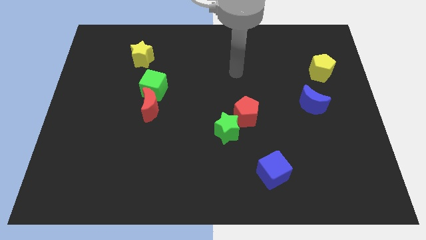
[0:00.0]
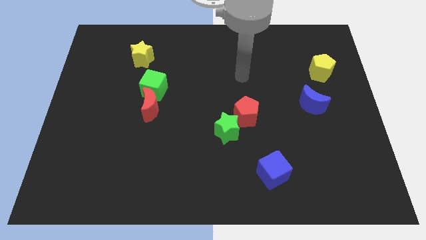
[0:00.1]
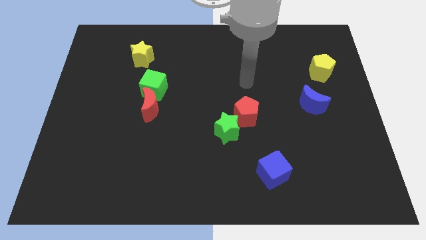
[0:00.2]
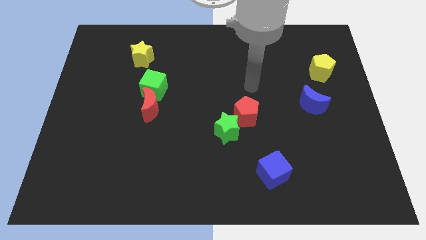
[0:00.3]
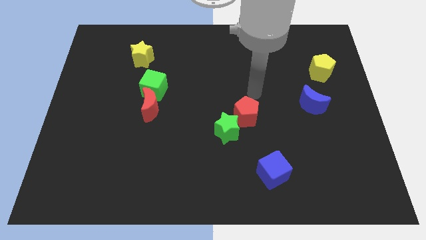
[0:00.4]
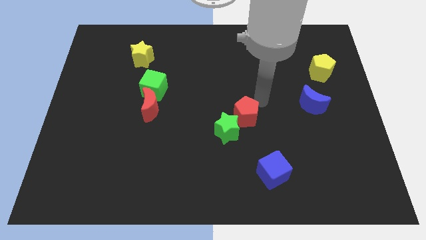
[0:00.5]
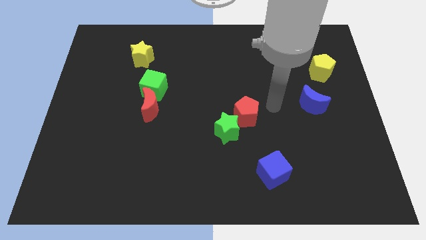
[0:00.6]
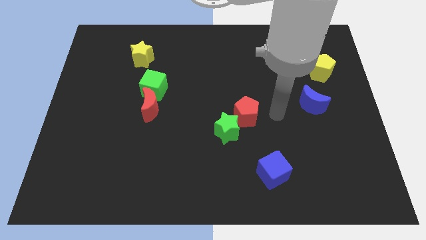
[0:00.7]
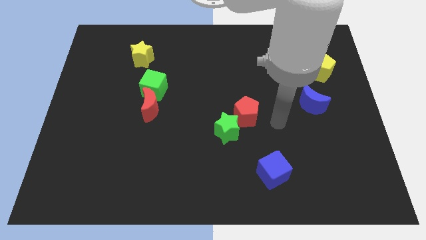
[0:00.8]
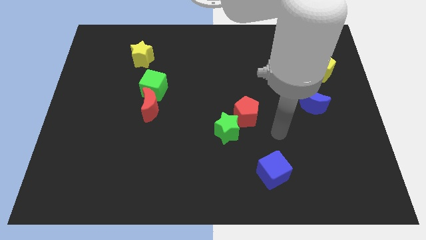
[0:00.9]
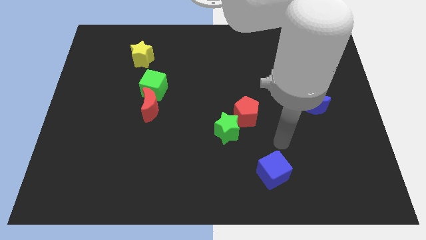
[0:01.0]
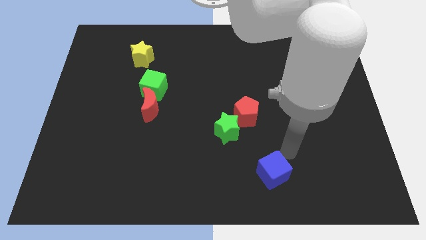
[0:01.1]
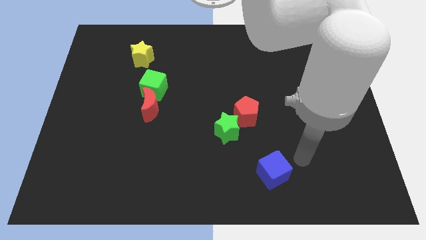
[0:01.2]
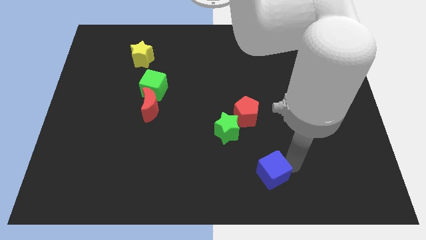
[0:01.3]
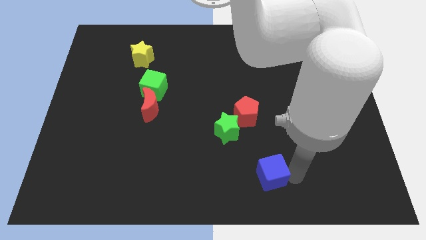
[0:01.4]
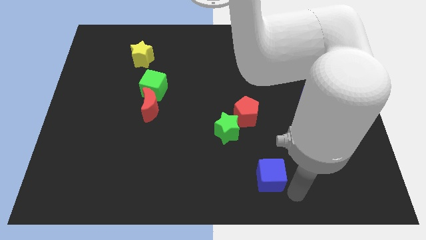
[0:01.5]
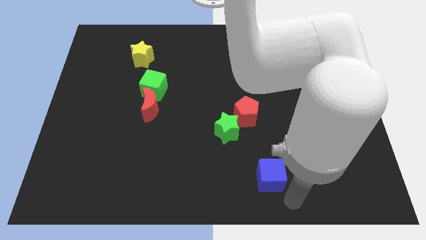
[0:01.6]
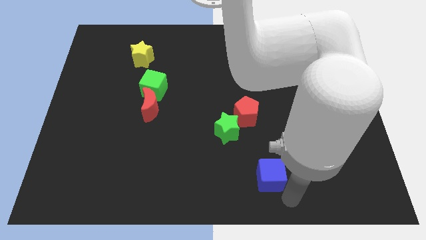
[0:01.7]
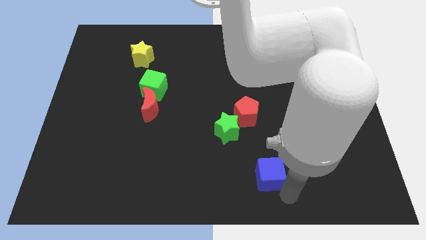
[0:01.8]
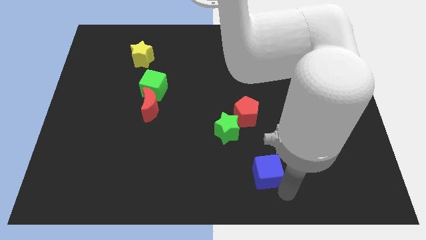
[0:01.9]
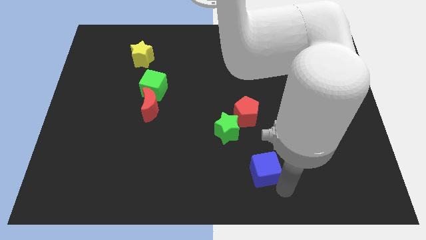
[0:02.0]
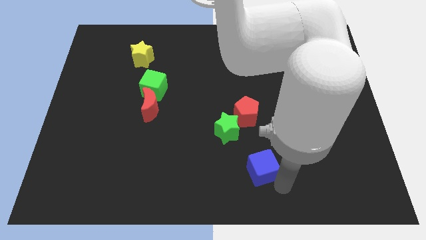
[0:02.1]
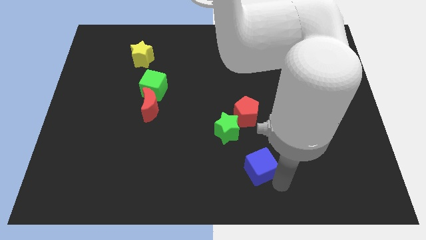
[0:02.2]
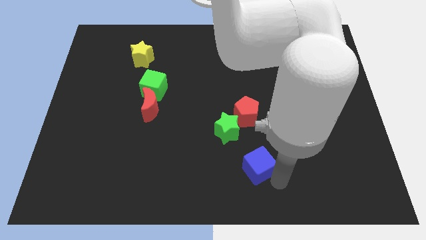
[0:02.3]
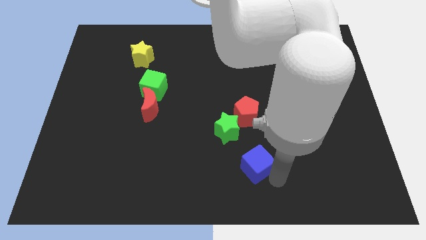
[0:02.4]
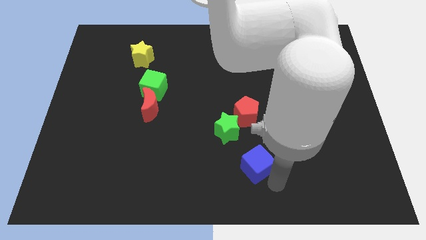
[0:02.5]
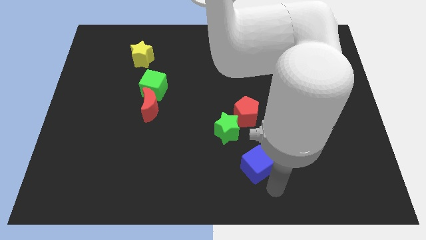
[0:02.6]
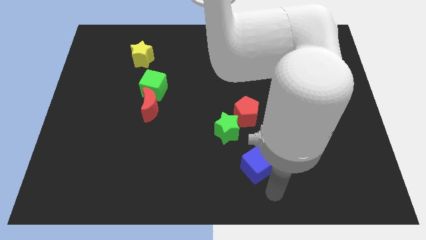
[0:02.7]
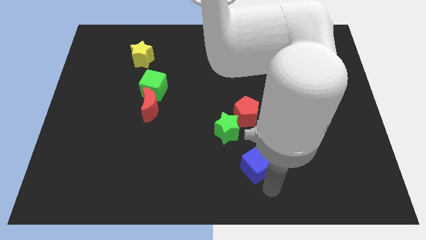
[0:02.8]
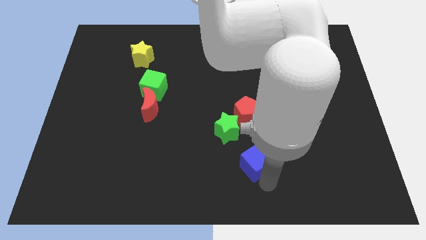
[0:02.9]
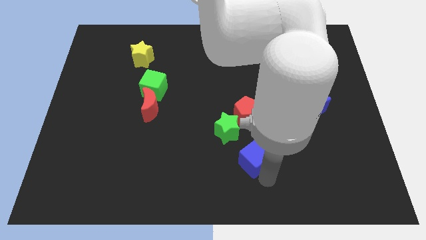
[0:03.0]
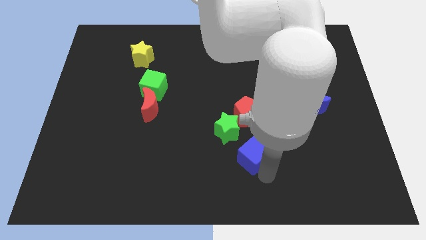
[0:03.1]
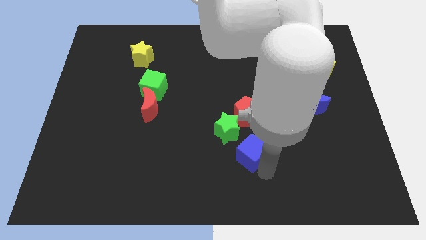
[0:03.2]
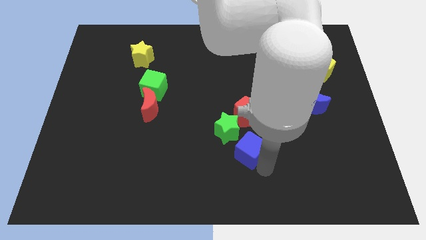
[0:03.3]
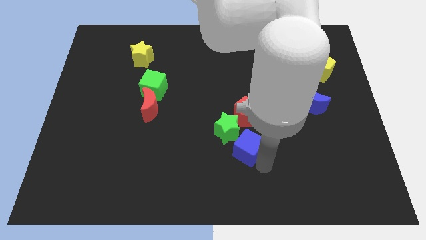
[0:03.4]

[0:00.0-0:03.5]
slide the blue cube slightly diagonally up and to the left

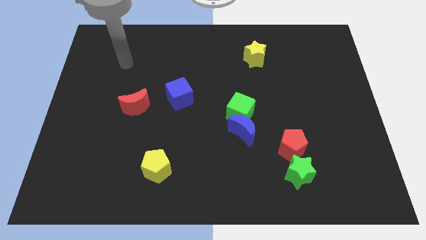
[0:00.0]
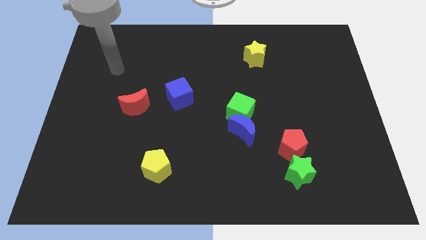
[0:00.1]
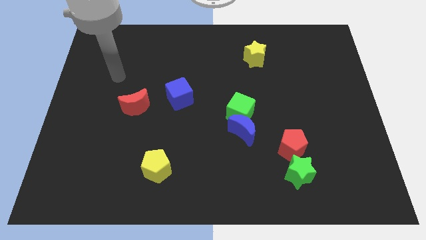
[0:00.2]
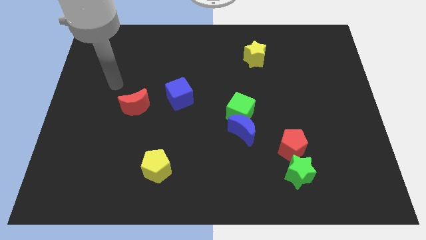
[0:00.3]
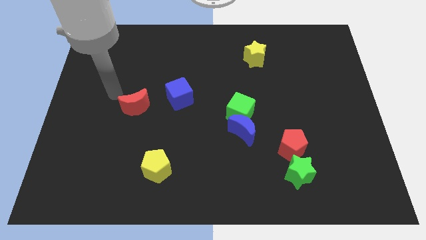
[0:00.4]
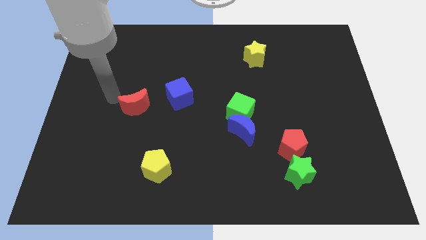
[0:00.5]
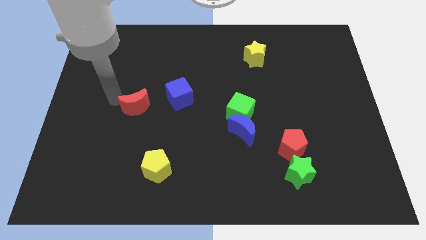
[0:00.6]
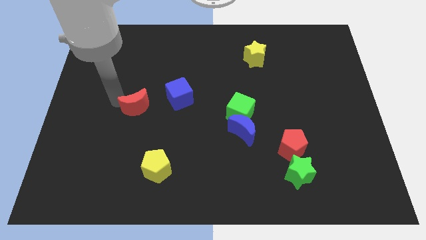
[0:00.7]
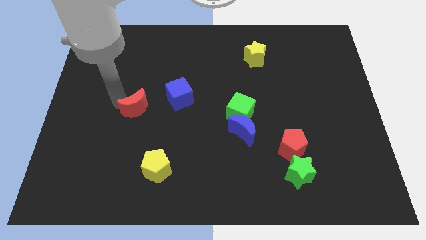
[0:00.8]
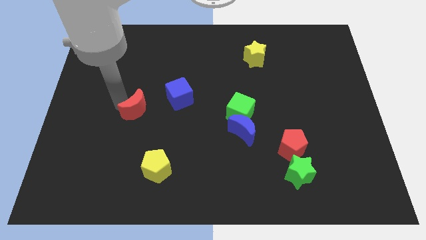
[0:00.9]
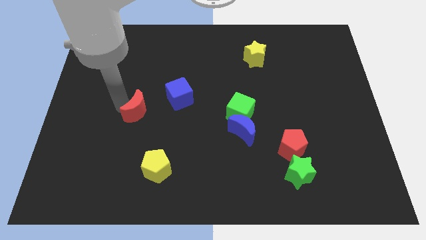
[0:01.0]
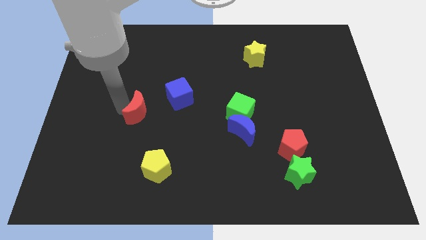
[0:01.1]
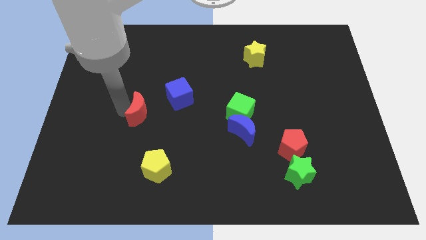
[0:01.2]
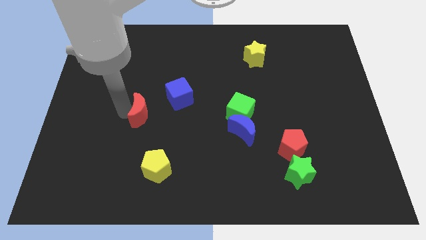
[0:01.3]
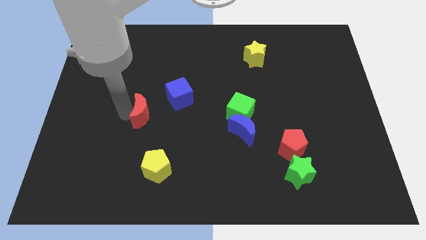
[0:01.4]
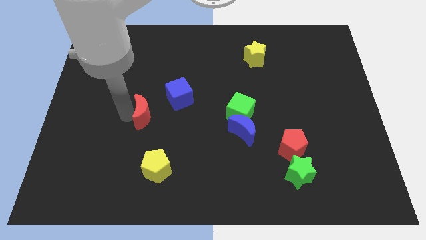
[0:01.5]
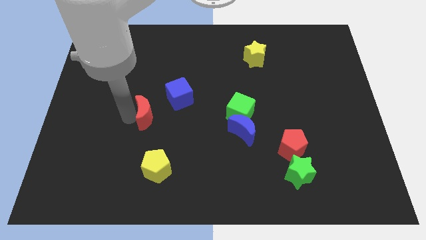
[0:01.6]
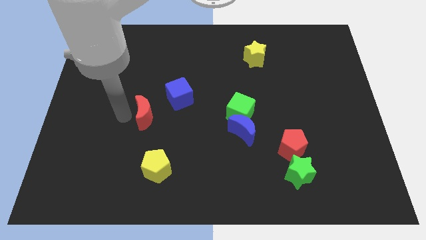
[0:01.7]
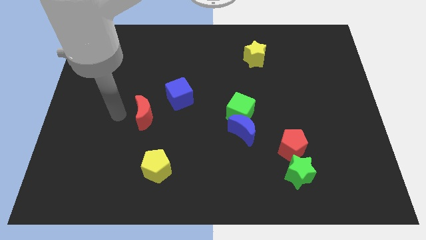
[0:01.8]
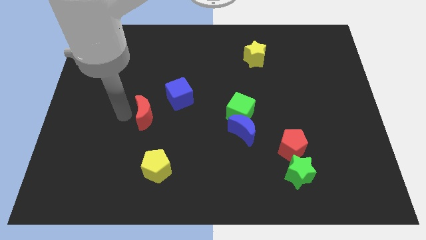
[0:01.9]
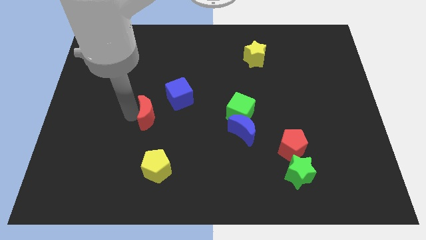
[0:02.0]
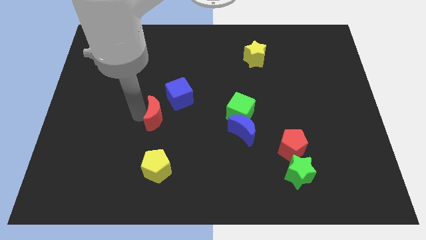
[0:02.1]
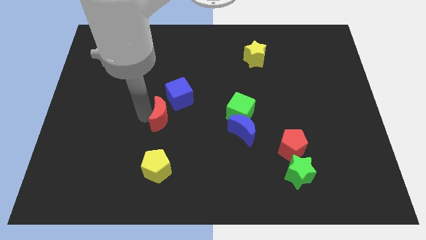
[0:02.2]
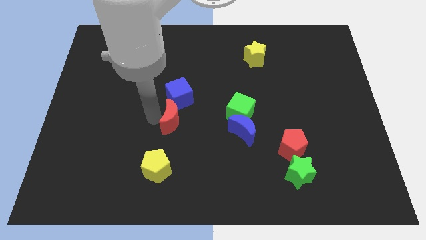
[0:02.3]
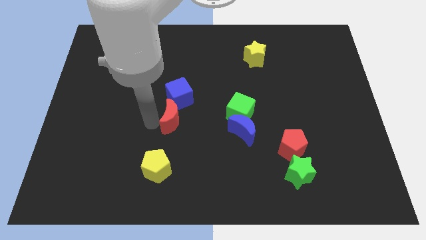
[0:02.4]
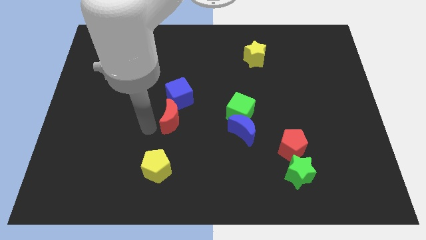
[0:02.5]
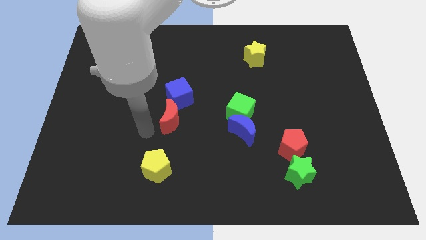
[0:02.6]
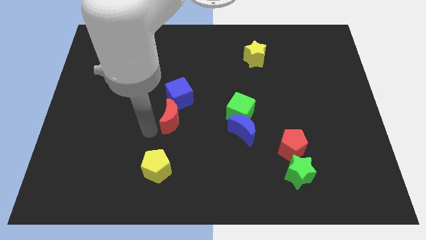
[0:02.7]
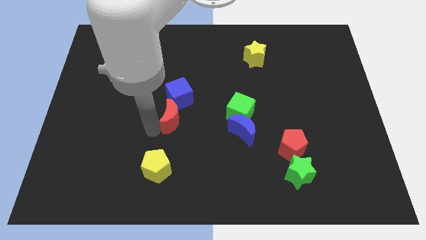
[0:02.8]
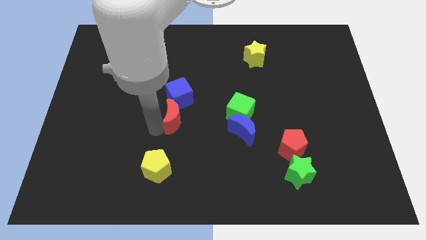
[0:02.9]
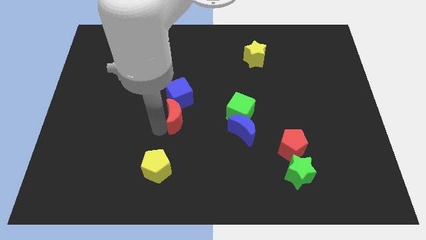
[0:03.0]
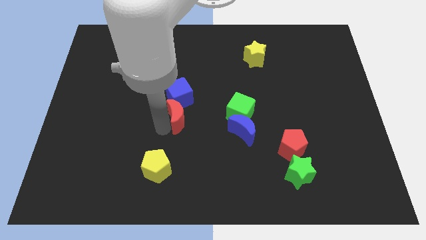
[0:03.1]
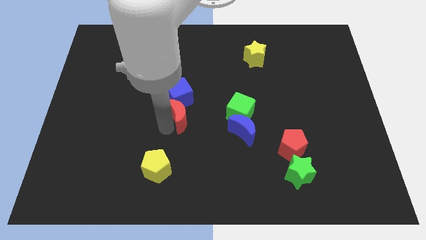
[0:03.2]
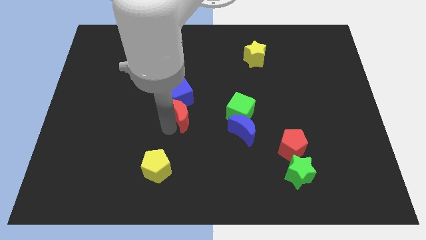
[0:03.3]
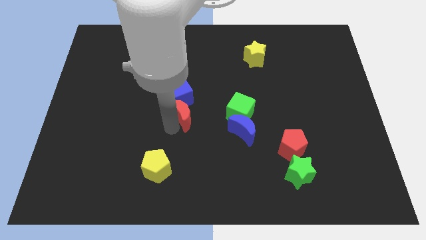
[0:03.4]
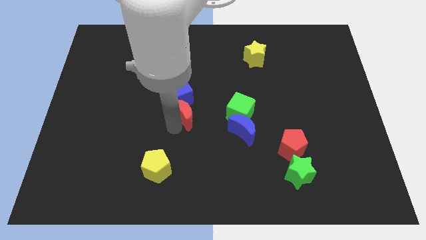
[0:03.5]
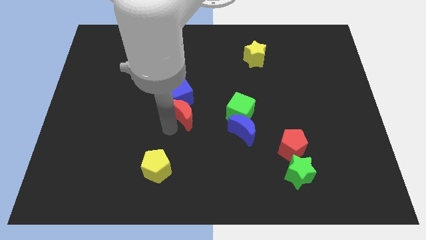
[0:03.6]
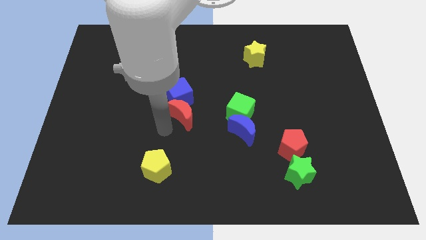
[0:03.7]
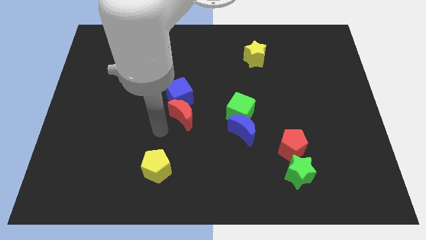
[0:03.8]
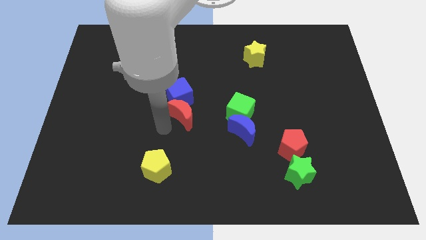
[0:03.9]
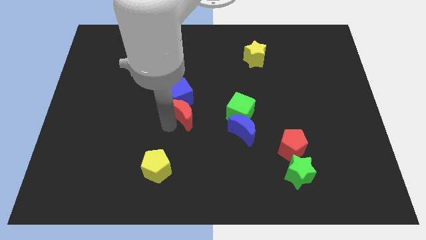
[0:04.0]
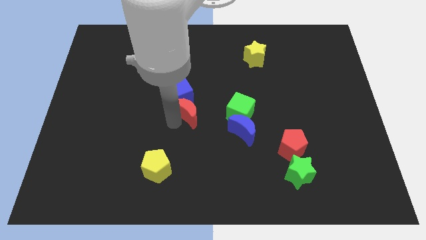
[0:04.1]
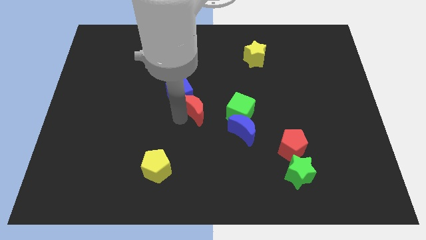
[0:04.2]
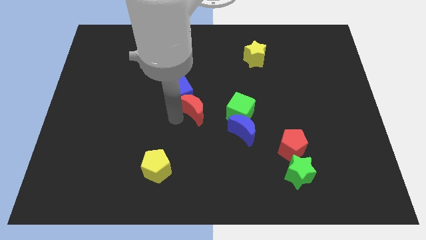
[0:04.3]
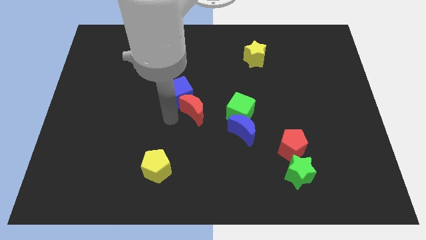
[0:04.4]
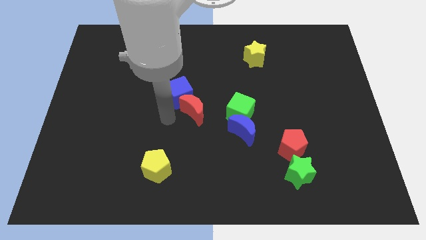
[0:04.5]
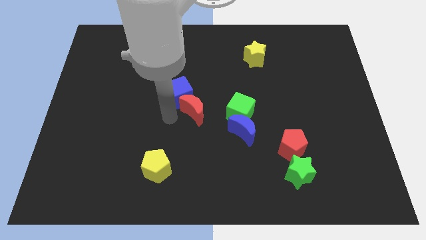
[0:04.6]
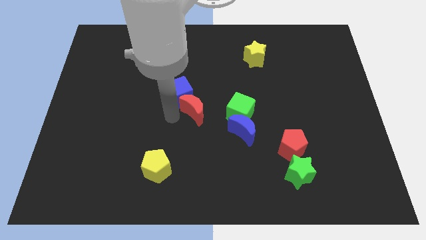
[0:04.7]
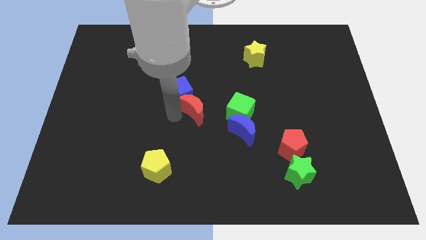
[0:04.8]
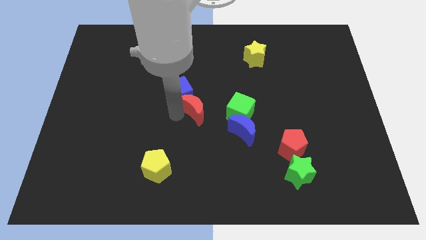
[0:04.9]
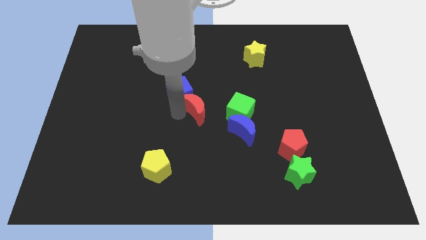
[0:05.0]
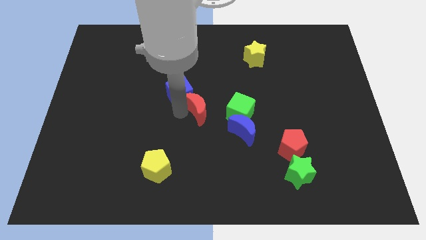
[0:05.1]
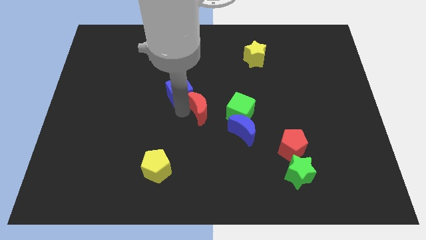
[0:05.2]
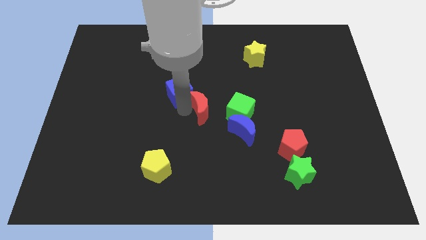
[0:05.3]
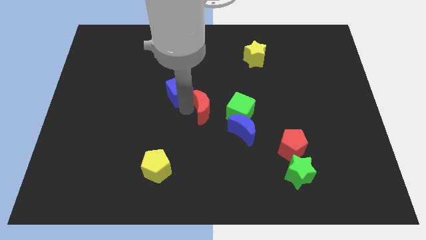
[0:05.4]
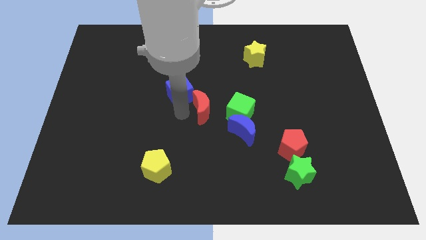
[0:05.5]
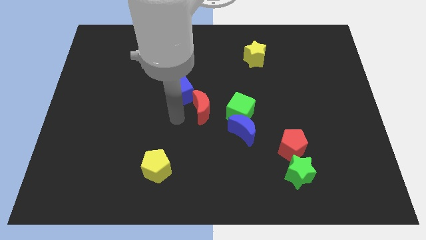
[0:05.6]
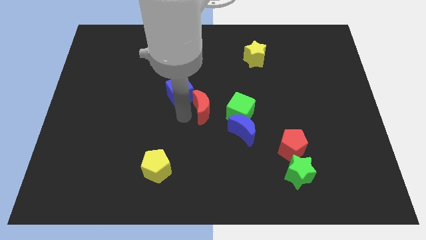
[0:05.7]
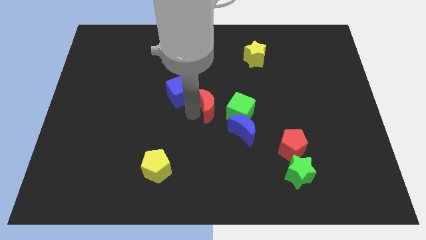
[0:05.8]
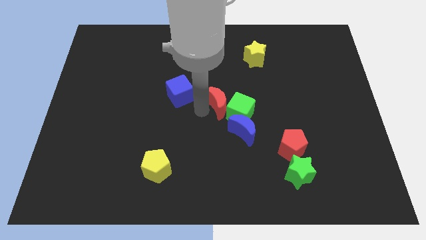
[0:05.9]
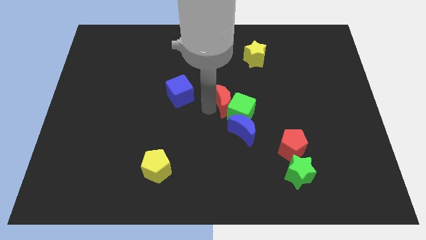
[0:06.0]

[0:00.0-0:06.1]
push the red moon right
